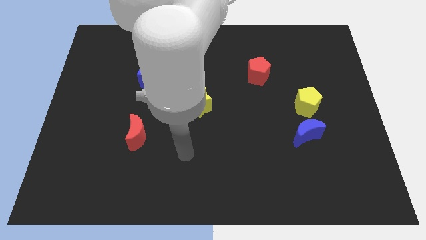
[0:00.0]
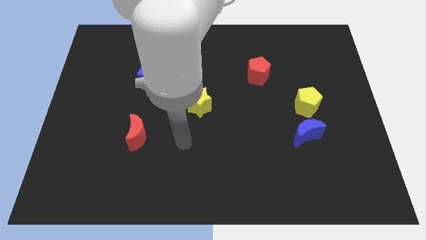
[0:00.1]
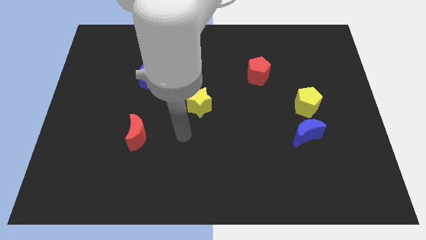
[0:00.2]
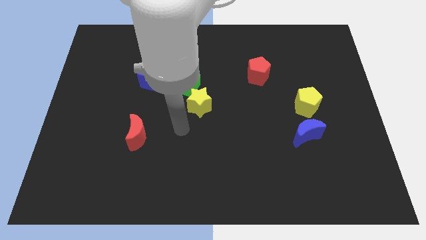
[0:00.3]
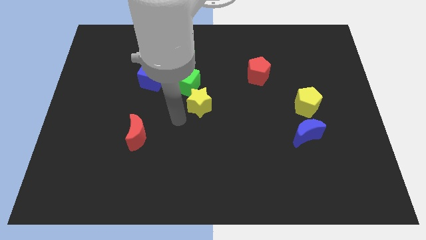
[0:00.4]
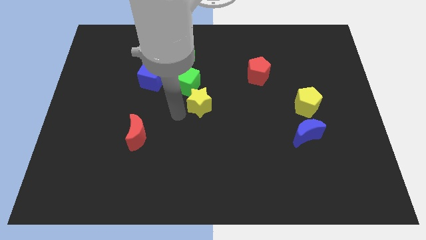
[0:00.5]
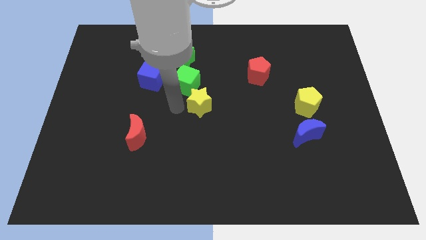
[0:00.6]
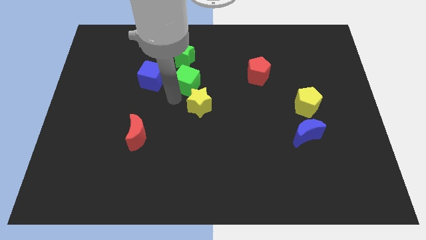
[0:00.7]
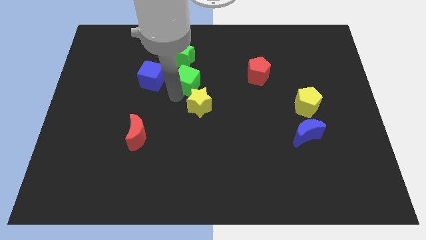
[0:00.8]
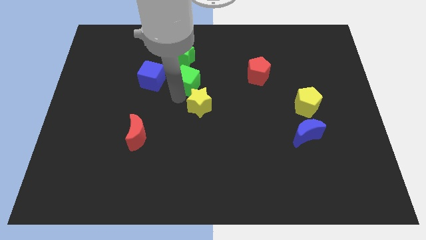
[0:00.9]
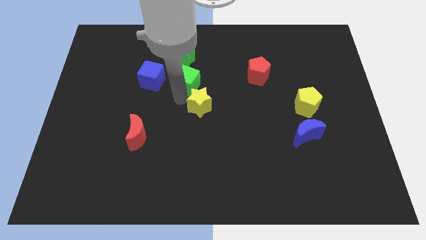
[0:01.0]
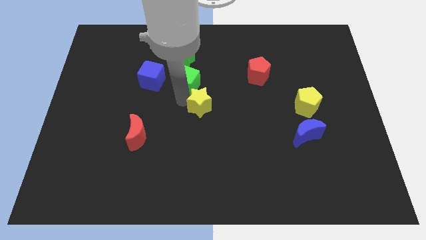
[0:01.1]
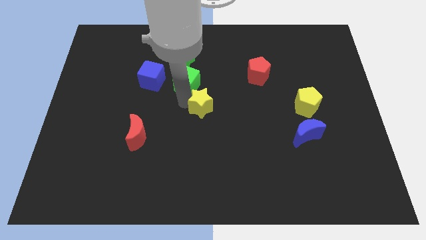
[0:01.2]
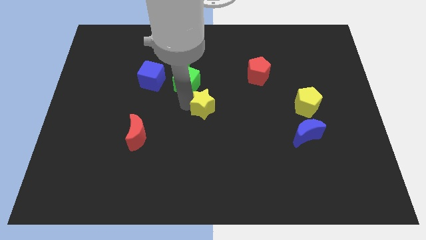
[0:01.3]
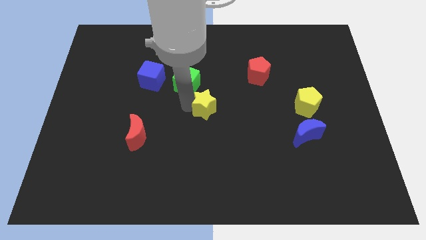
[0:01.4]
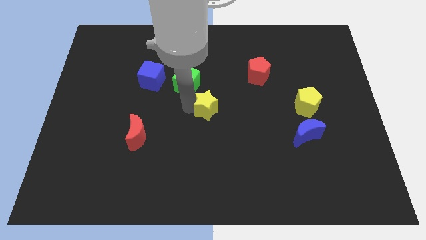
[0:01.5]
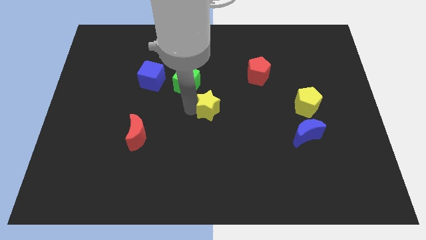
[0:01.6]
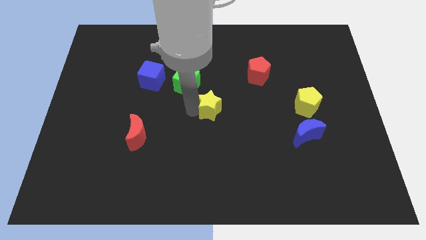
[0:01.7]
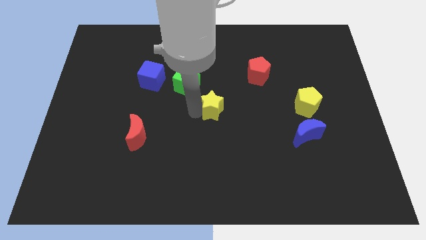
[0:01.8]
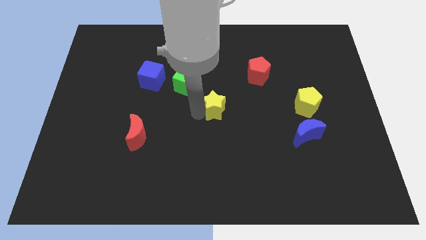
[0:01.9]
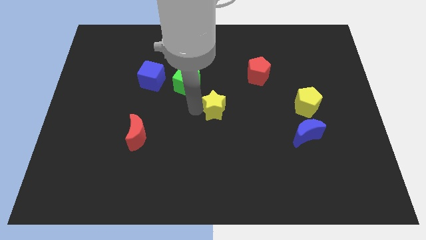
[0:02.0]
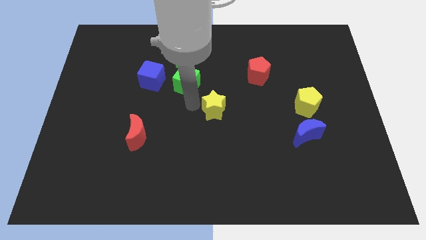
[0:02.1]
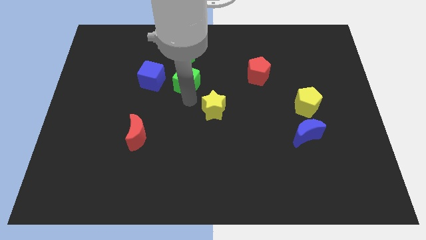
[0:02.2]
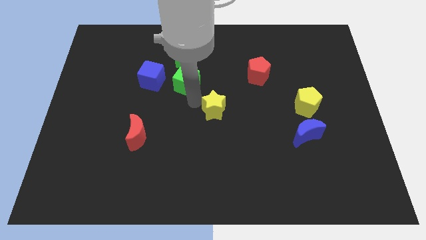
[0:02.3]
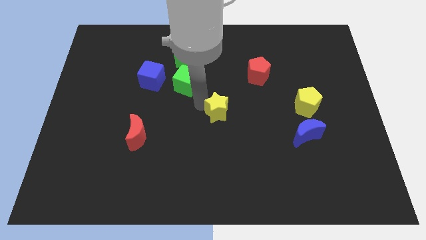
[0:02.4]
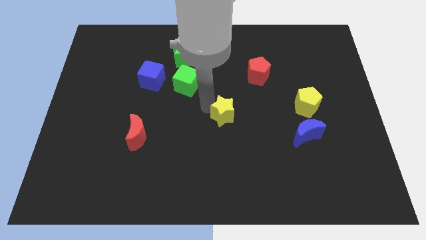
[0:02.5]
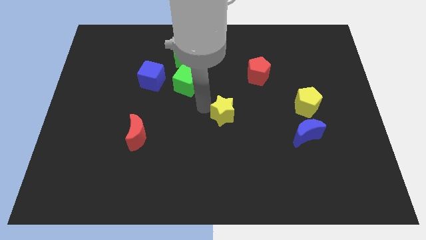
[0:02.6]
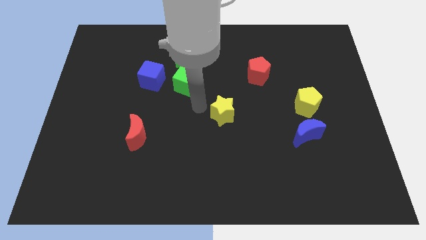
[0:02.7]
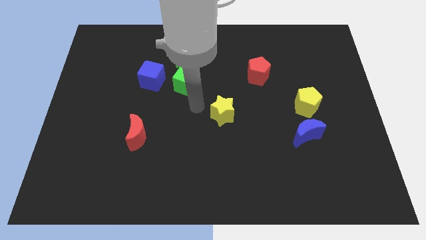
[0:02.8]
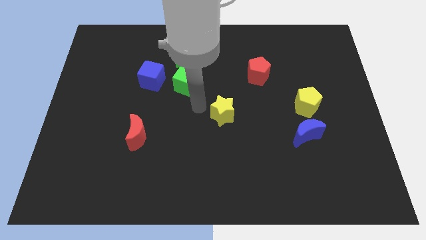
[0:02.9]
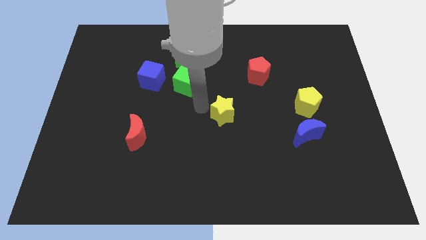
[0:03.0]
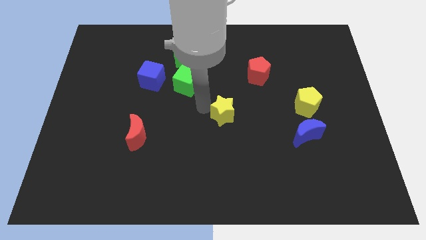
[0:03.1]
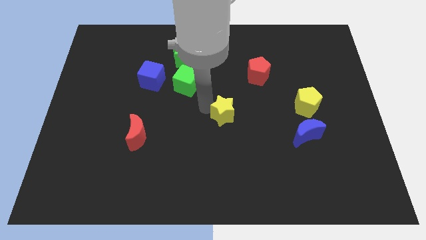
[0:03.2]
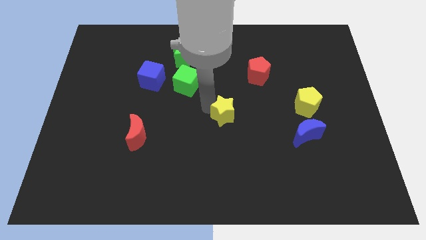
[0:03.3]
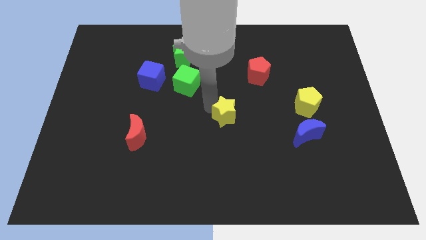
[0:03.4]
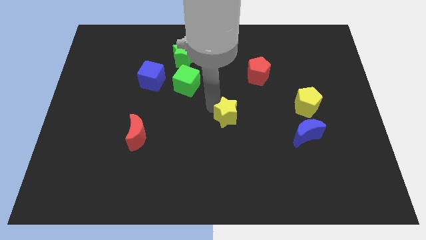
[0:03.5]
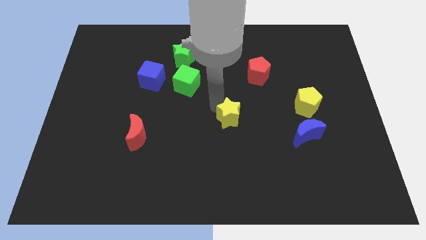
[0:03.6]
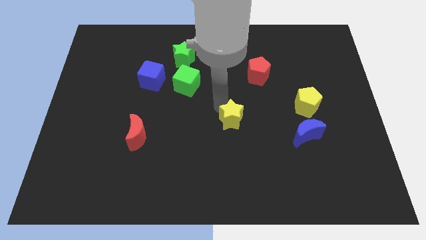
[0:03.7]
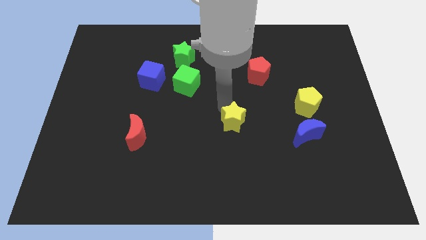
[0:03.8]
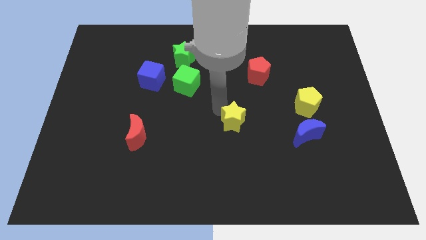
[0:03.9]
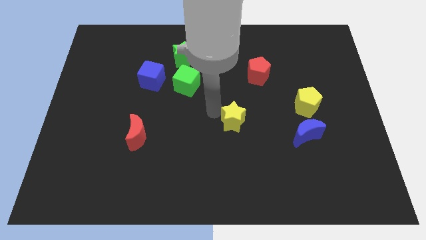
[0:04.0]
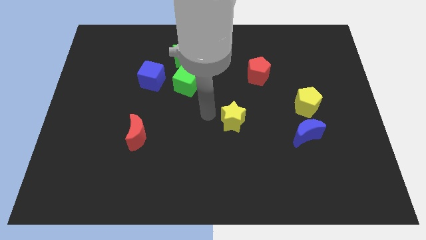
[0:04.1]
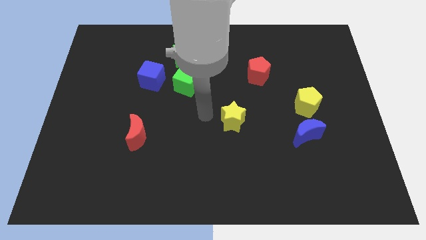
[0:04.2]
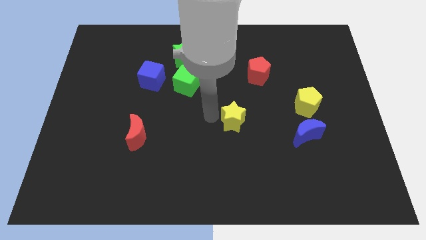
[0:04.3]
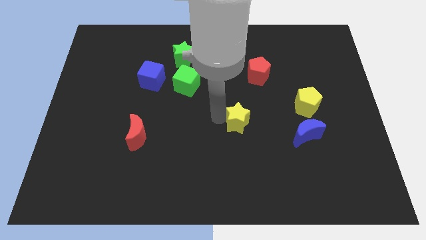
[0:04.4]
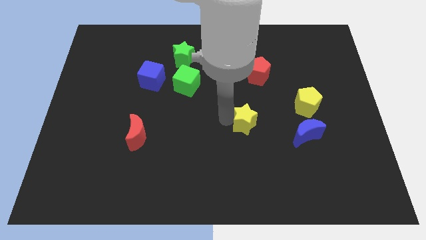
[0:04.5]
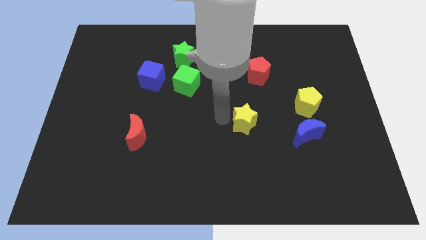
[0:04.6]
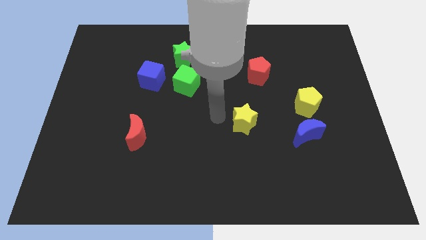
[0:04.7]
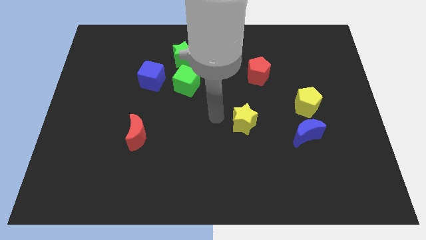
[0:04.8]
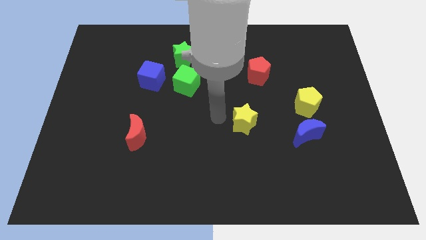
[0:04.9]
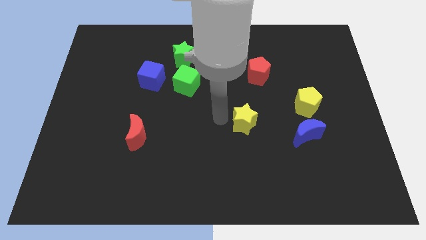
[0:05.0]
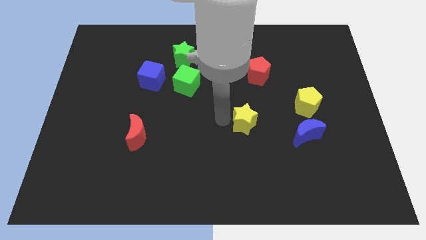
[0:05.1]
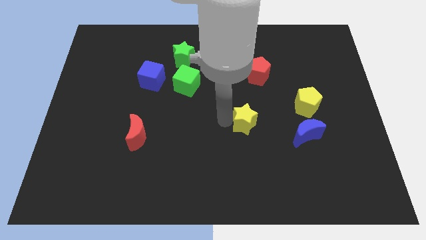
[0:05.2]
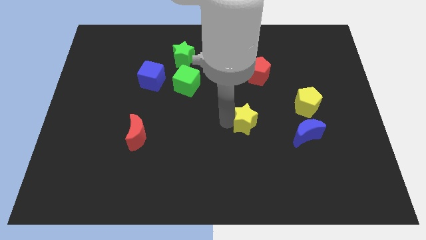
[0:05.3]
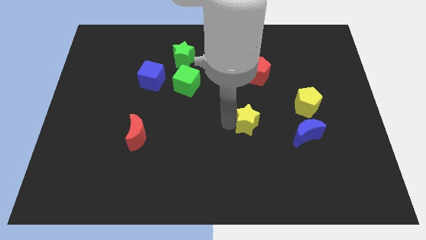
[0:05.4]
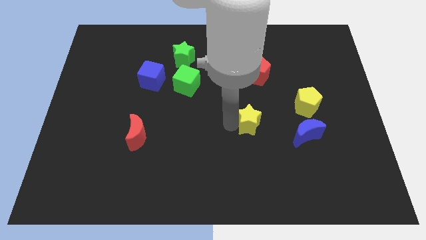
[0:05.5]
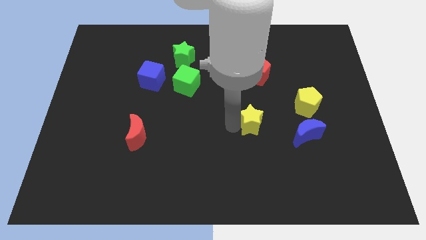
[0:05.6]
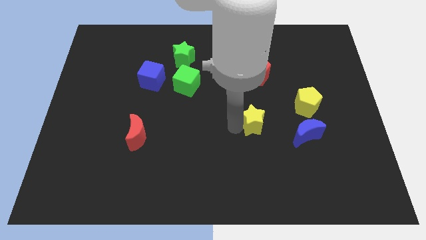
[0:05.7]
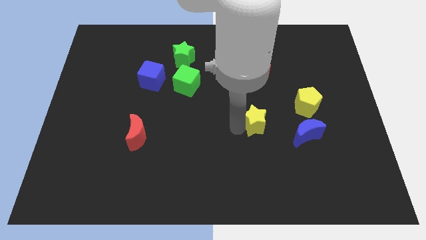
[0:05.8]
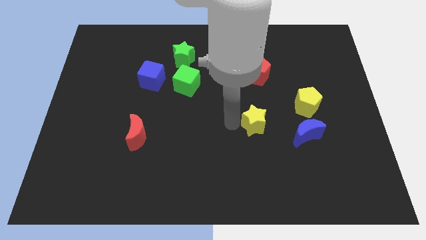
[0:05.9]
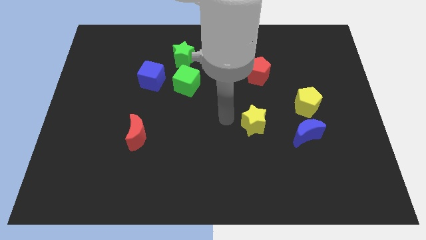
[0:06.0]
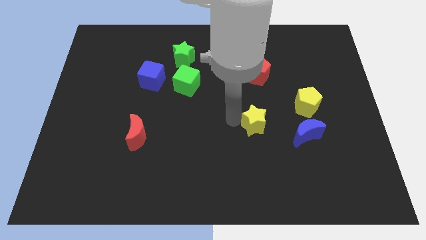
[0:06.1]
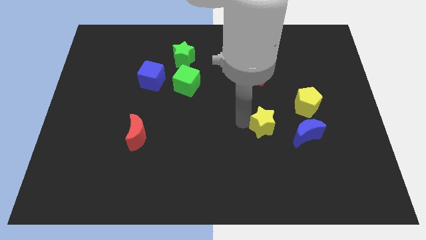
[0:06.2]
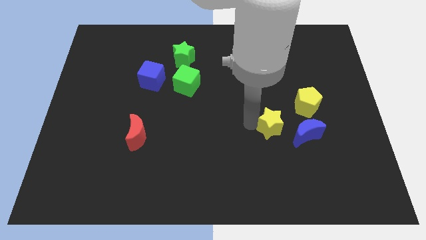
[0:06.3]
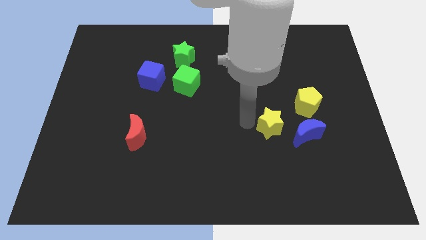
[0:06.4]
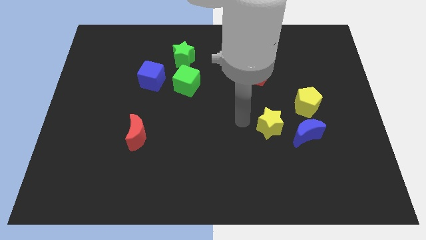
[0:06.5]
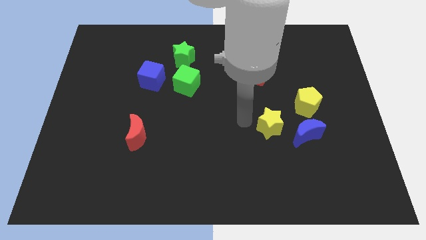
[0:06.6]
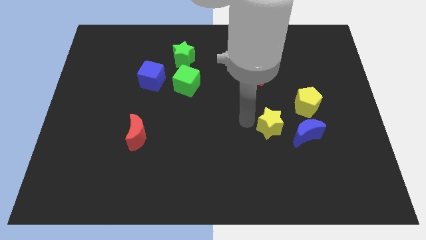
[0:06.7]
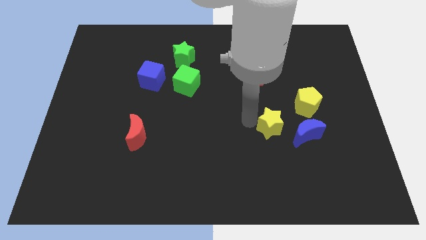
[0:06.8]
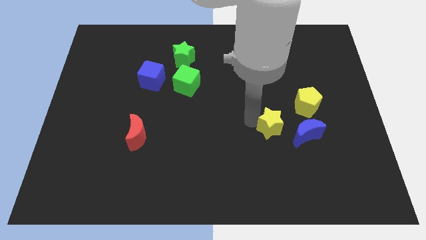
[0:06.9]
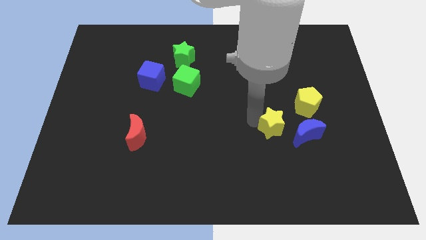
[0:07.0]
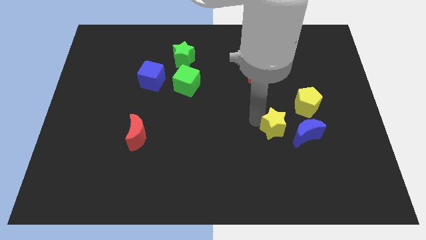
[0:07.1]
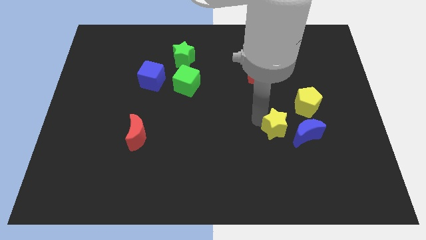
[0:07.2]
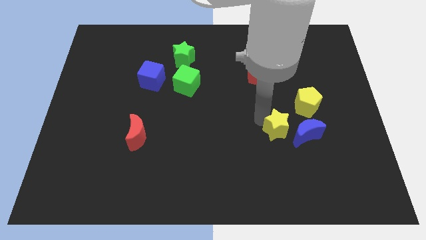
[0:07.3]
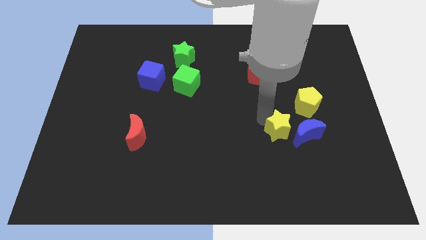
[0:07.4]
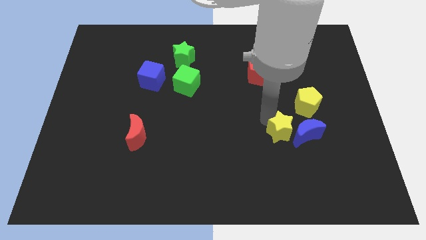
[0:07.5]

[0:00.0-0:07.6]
slide the yellow star towards the blue moon

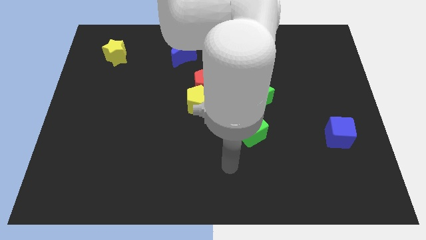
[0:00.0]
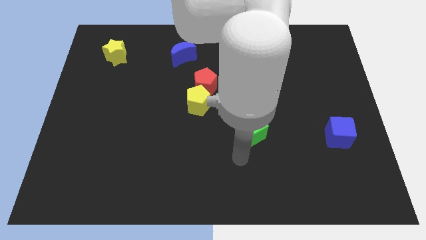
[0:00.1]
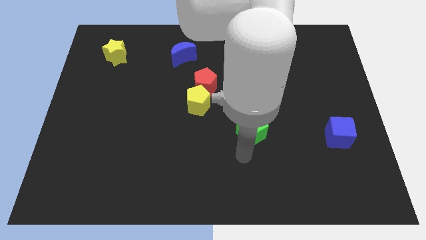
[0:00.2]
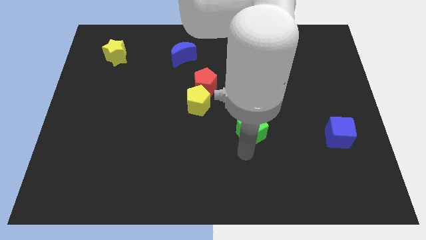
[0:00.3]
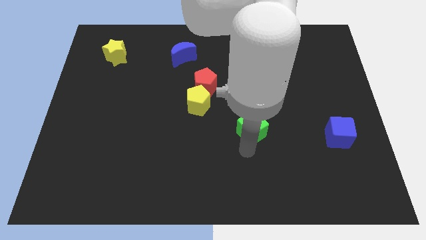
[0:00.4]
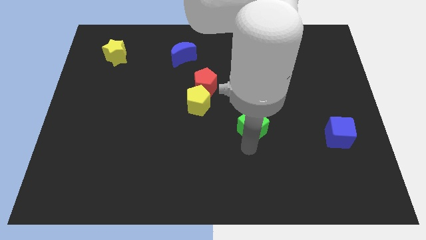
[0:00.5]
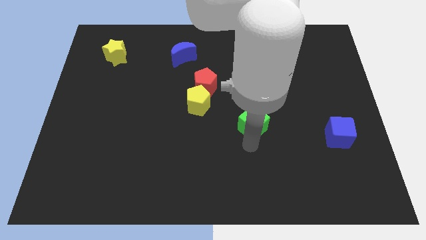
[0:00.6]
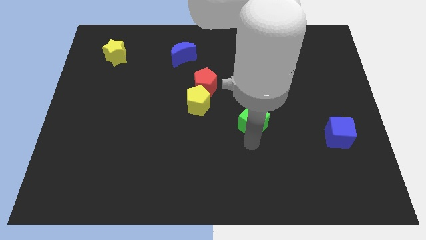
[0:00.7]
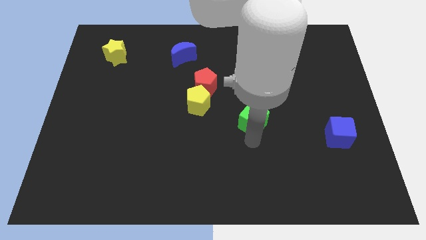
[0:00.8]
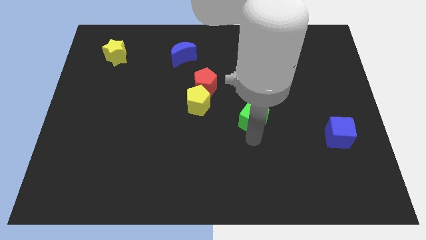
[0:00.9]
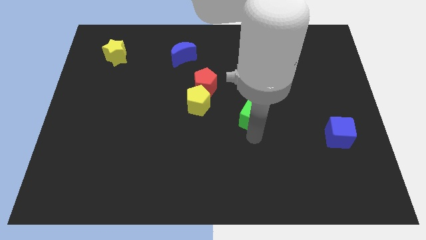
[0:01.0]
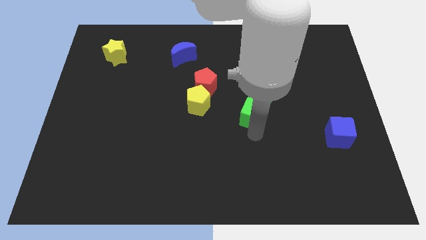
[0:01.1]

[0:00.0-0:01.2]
push the green cube close to the green star
